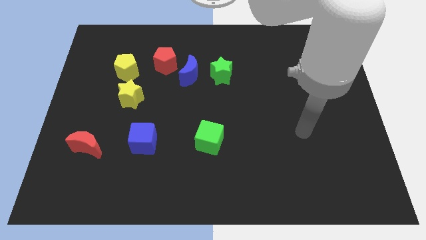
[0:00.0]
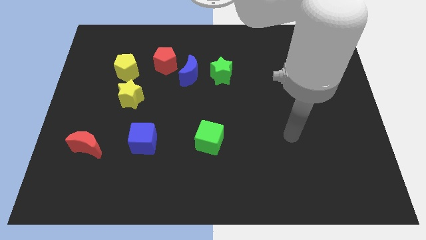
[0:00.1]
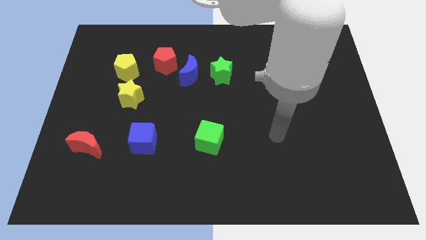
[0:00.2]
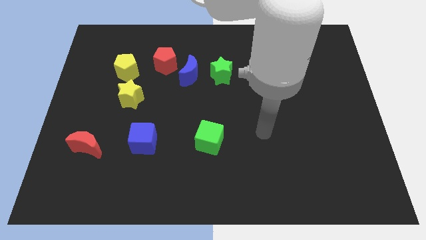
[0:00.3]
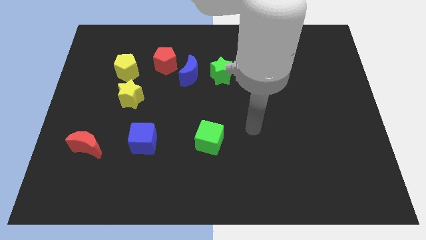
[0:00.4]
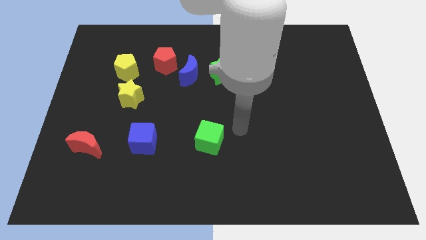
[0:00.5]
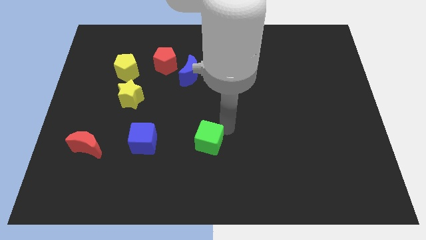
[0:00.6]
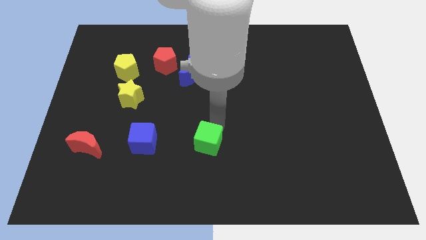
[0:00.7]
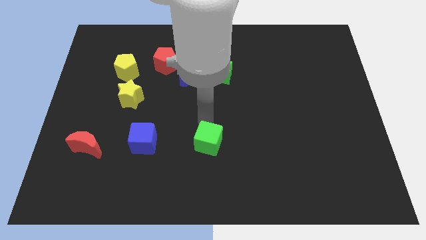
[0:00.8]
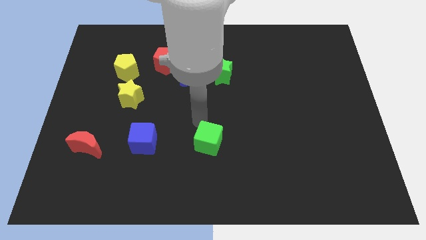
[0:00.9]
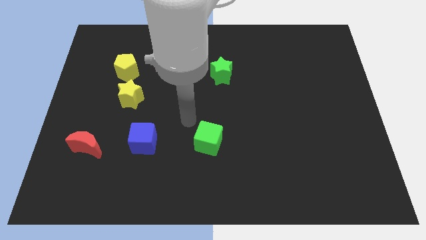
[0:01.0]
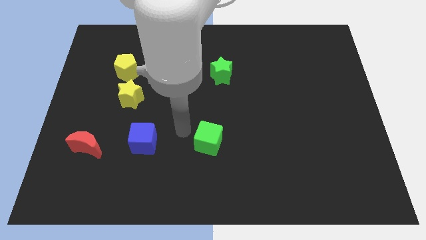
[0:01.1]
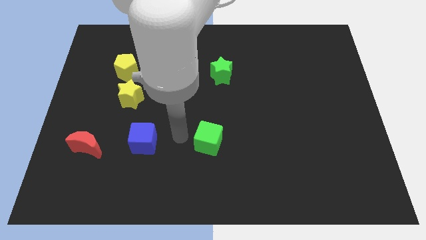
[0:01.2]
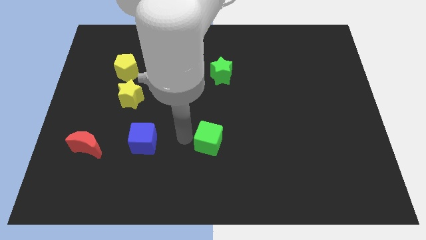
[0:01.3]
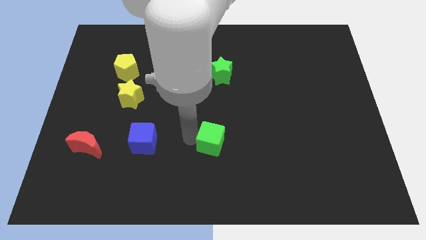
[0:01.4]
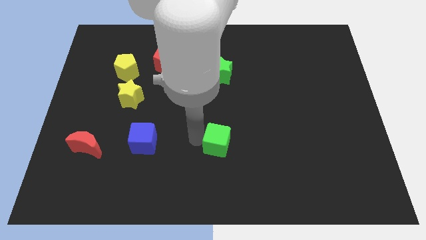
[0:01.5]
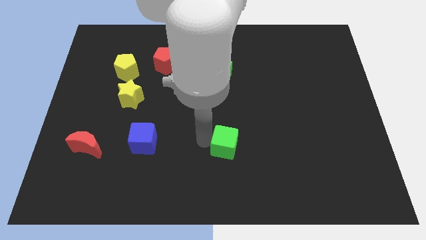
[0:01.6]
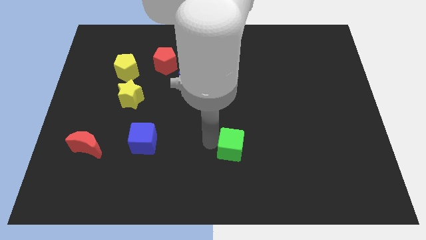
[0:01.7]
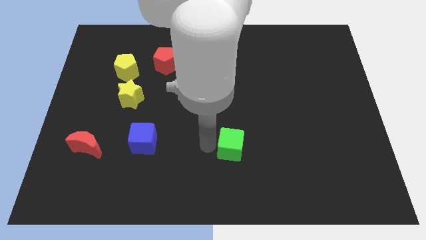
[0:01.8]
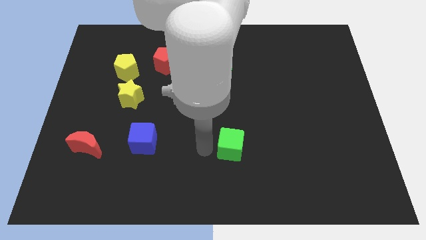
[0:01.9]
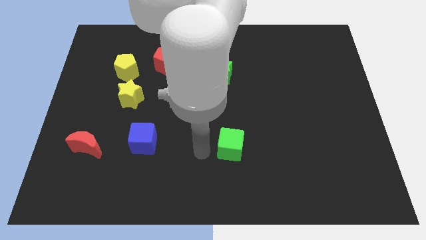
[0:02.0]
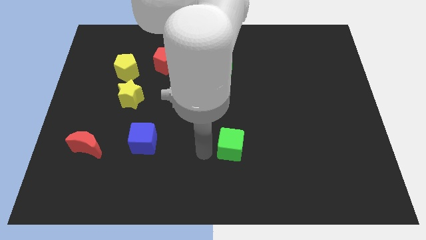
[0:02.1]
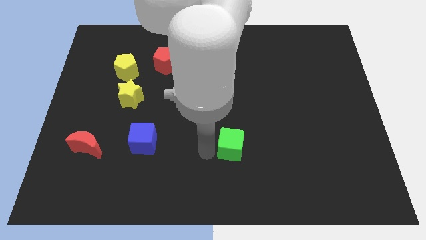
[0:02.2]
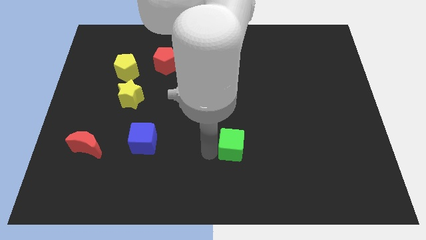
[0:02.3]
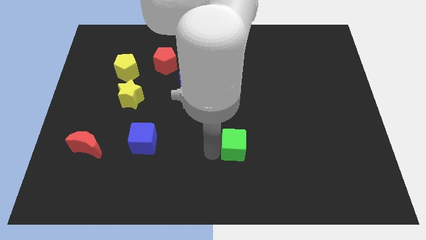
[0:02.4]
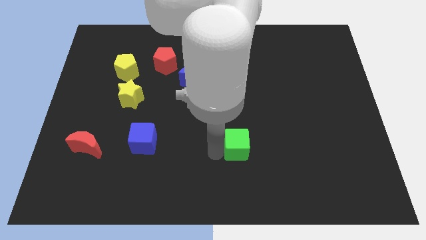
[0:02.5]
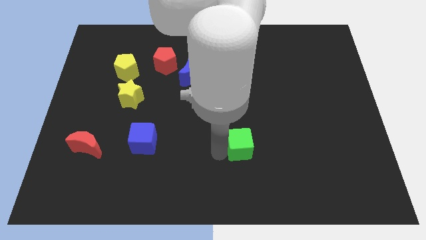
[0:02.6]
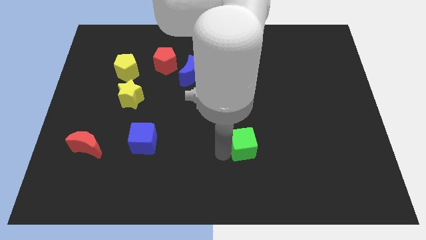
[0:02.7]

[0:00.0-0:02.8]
slightly slide the green cube right

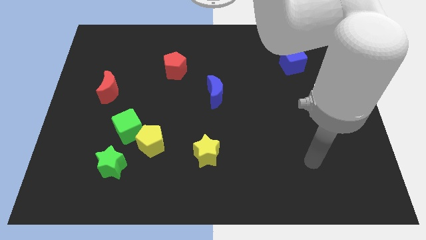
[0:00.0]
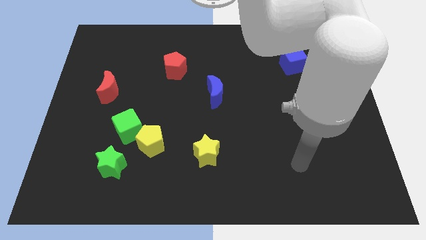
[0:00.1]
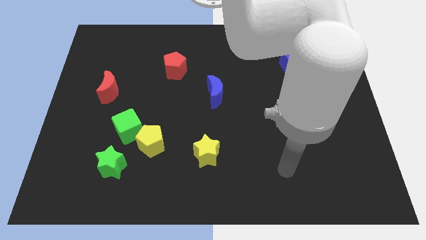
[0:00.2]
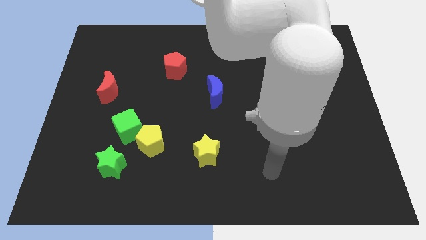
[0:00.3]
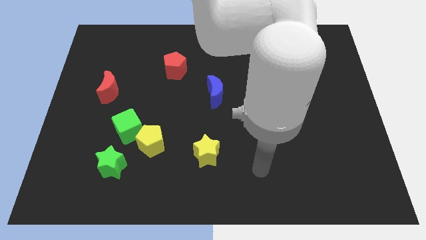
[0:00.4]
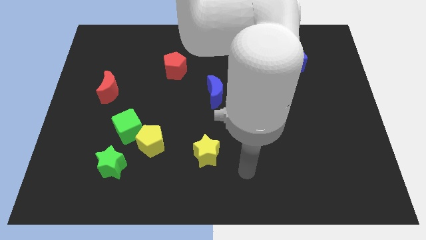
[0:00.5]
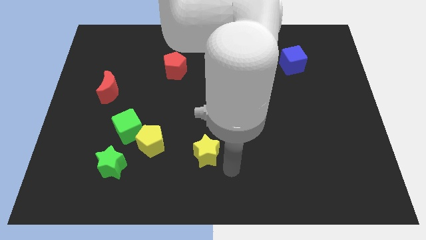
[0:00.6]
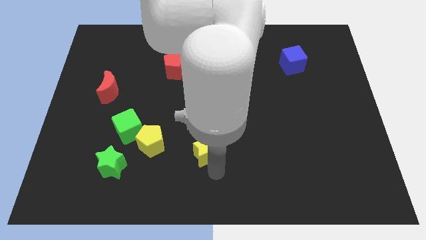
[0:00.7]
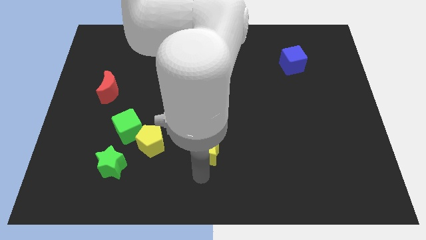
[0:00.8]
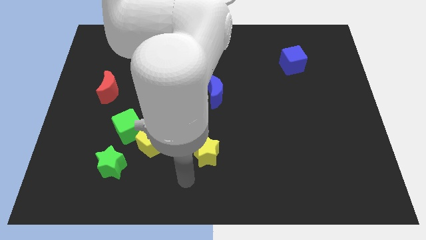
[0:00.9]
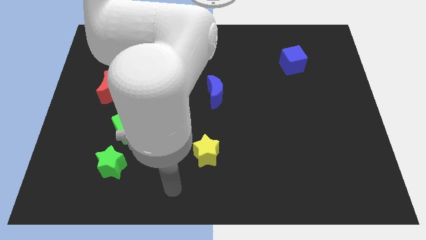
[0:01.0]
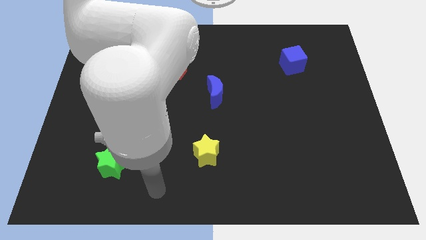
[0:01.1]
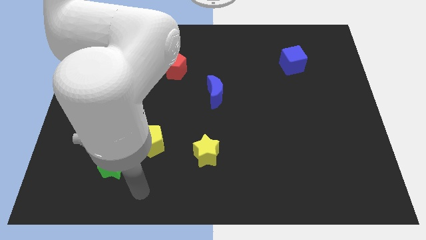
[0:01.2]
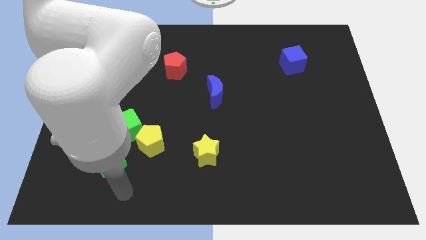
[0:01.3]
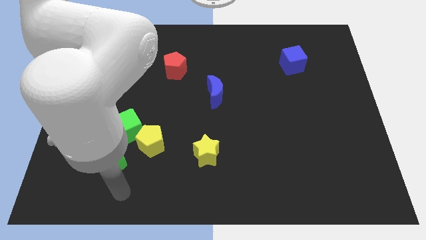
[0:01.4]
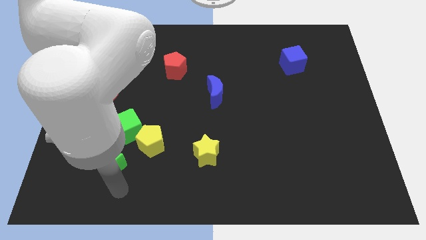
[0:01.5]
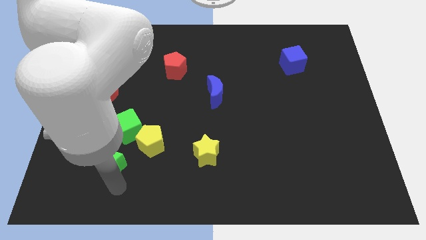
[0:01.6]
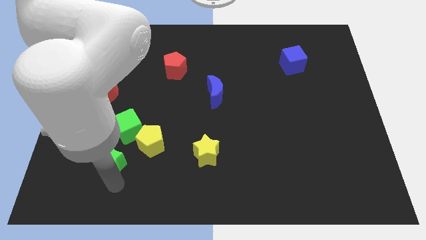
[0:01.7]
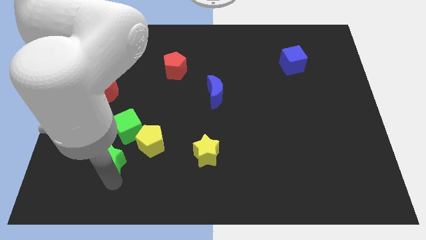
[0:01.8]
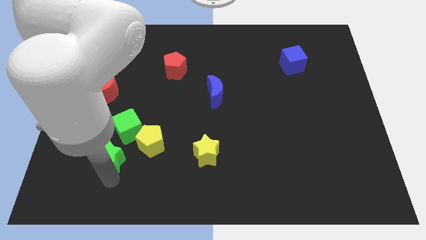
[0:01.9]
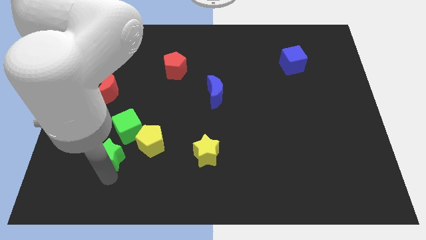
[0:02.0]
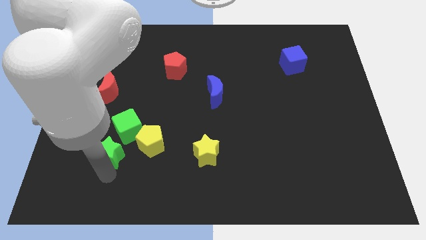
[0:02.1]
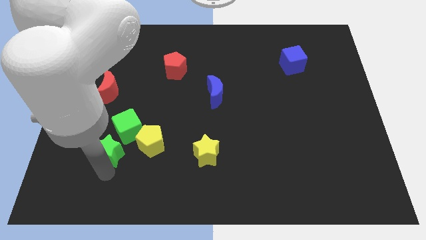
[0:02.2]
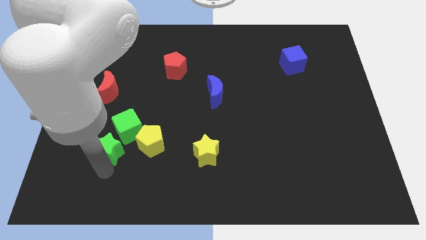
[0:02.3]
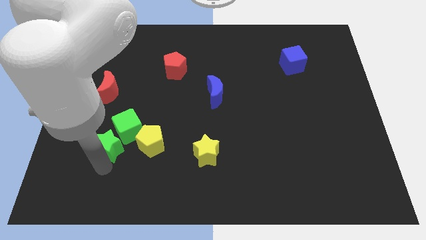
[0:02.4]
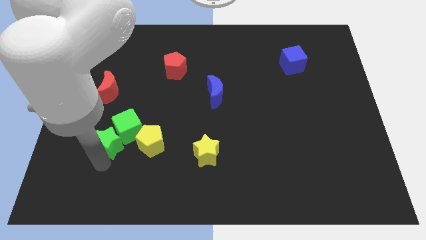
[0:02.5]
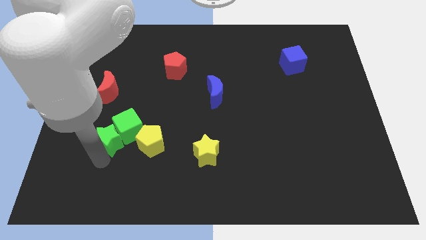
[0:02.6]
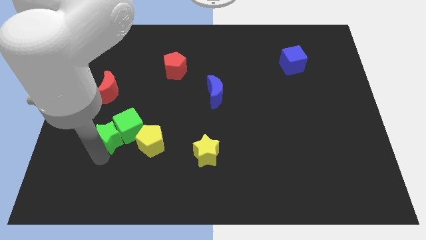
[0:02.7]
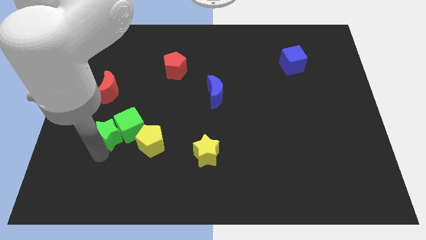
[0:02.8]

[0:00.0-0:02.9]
push the green star upwards a bit

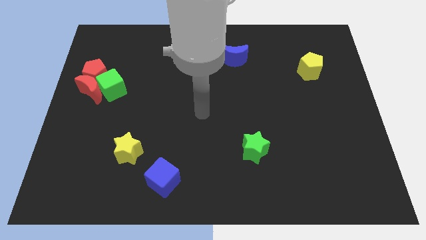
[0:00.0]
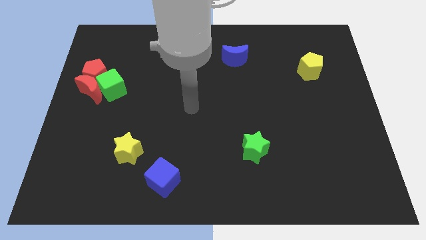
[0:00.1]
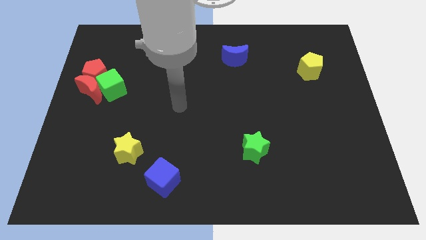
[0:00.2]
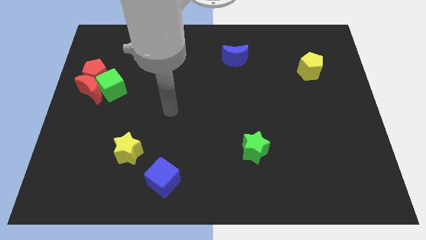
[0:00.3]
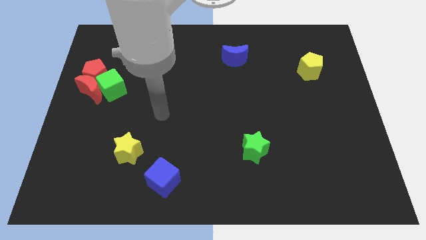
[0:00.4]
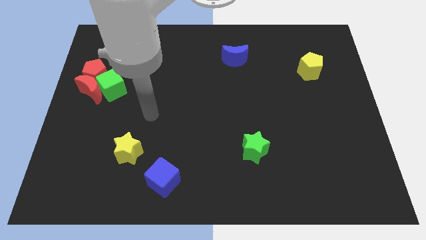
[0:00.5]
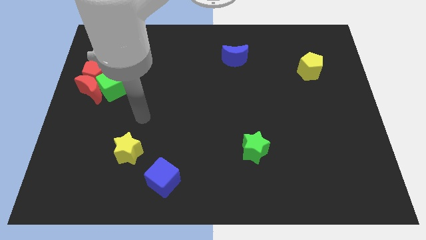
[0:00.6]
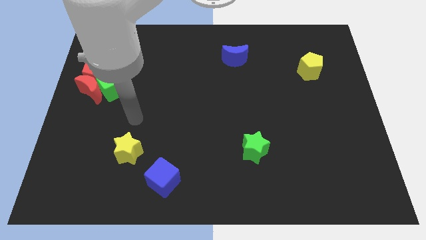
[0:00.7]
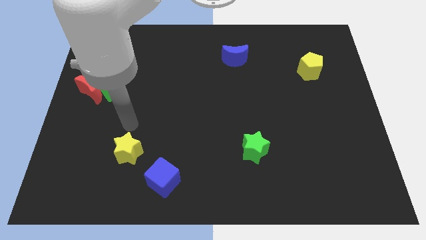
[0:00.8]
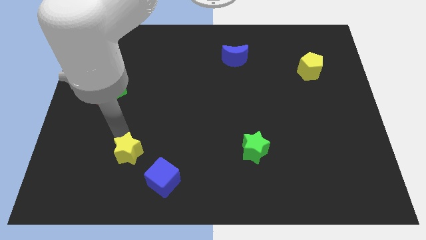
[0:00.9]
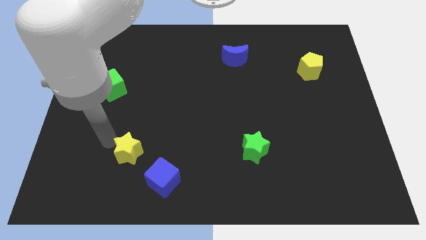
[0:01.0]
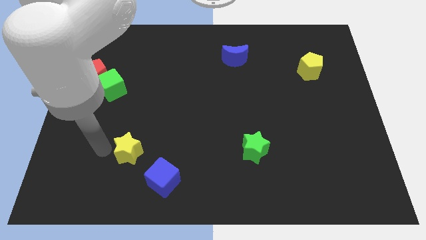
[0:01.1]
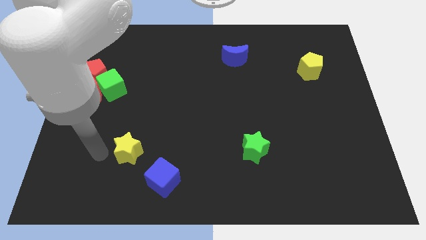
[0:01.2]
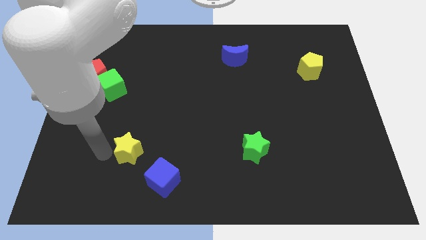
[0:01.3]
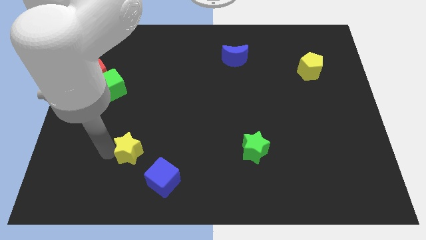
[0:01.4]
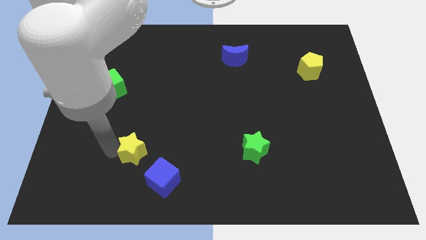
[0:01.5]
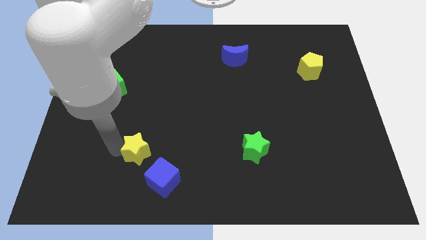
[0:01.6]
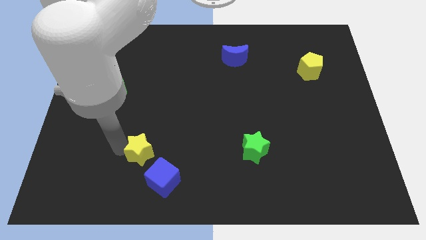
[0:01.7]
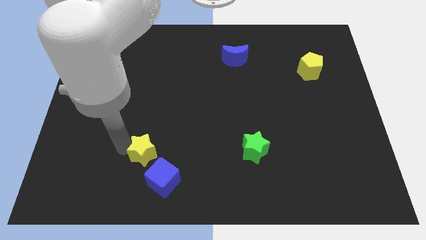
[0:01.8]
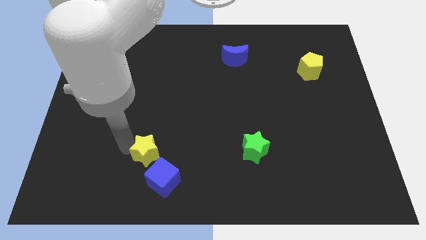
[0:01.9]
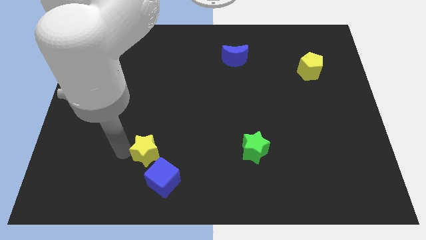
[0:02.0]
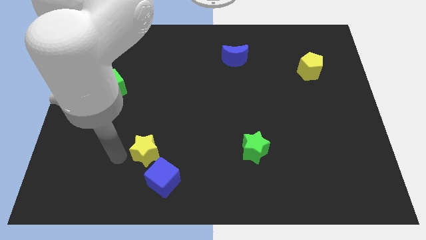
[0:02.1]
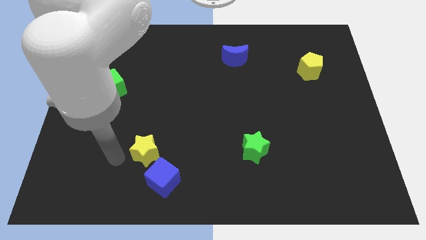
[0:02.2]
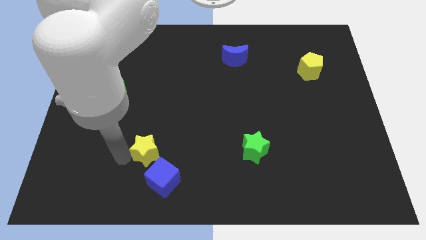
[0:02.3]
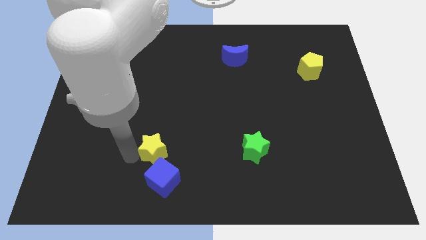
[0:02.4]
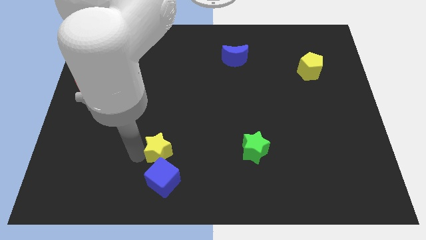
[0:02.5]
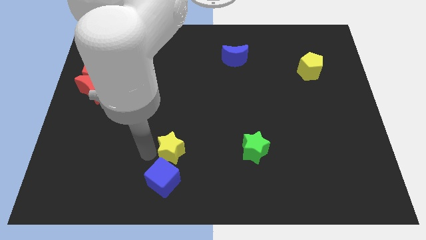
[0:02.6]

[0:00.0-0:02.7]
slide the yellow star to the right slightly
